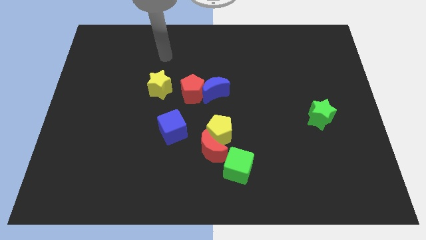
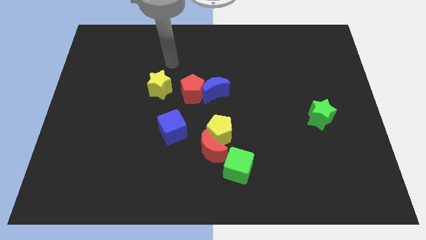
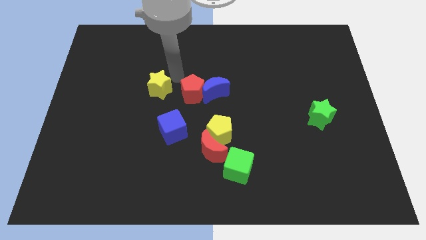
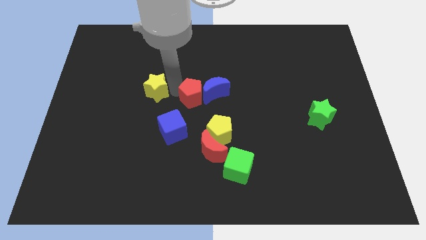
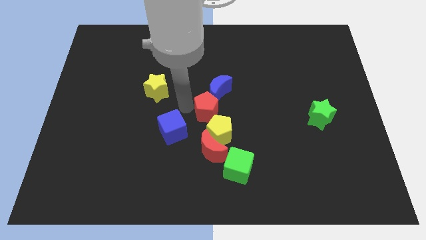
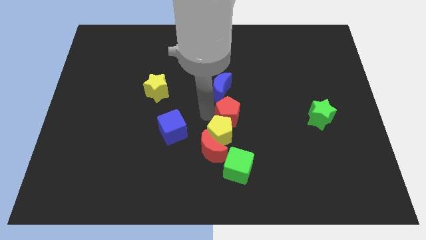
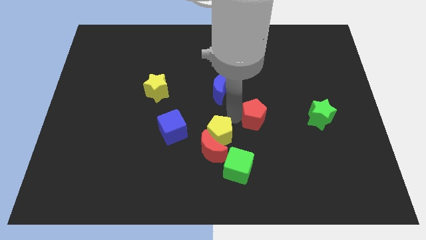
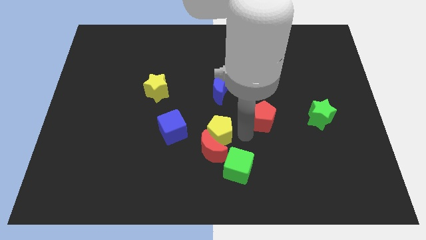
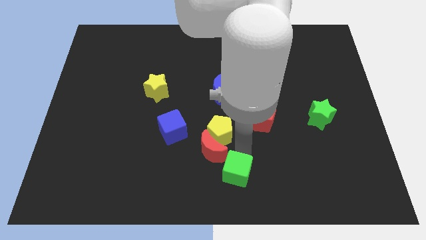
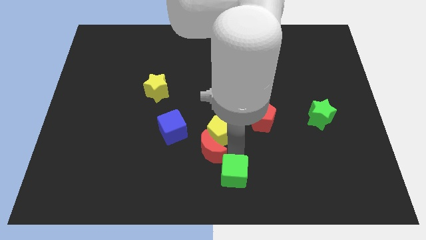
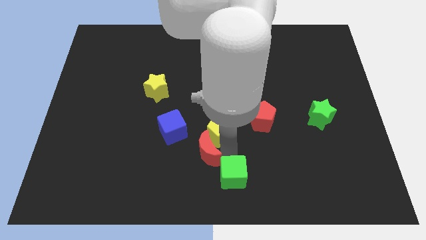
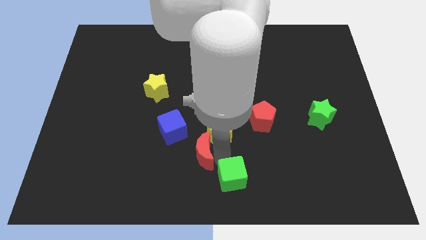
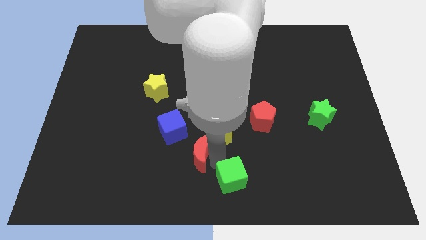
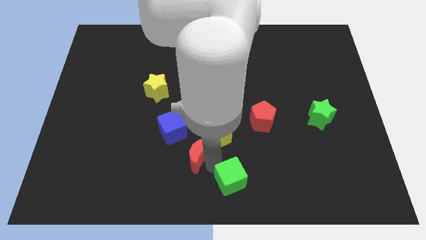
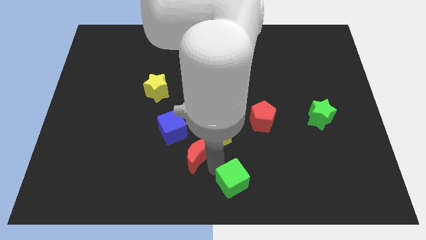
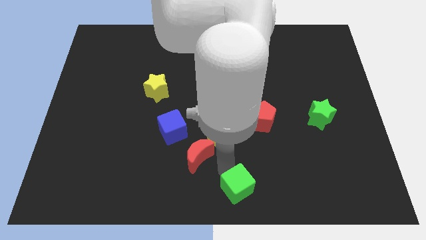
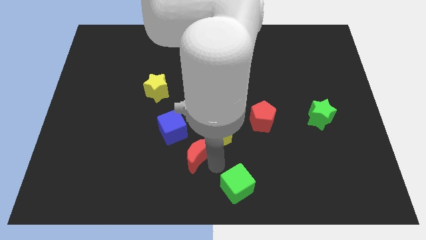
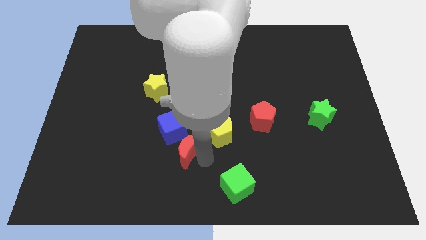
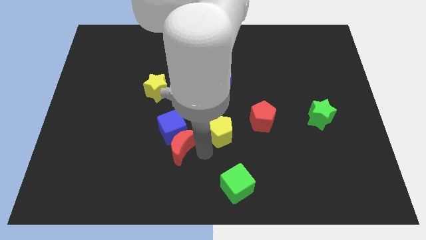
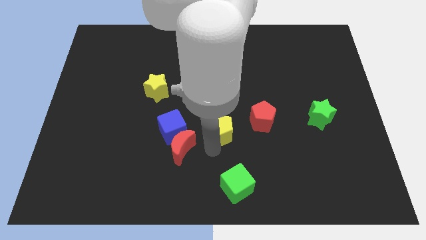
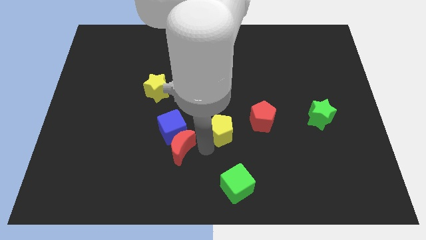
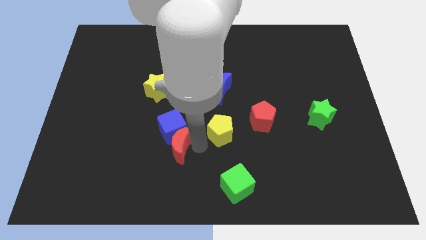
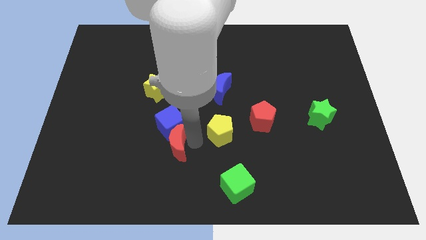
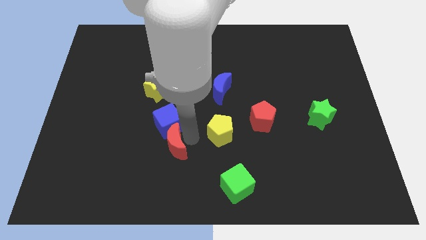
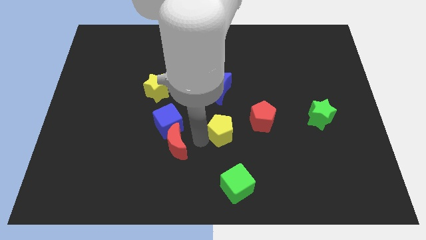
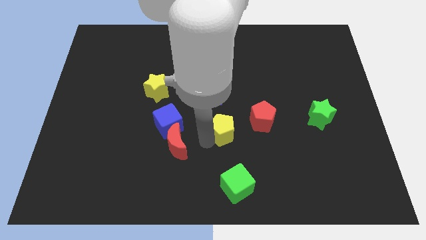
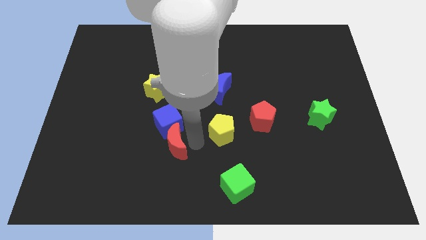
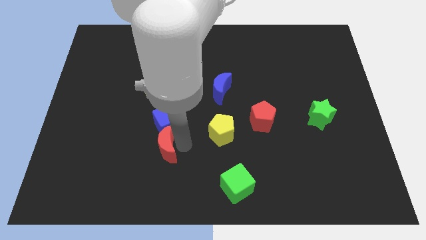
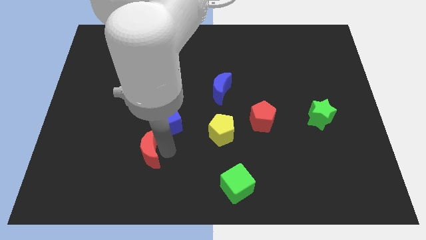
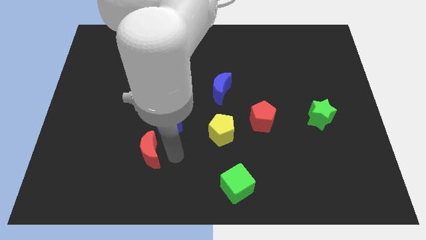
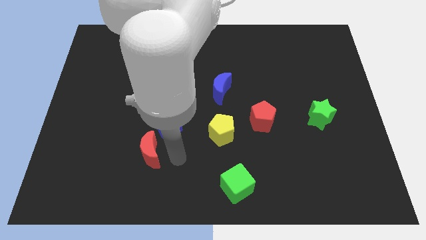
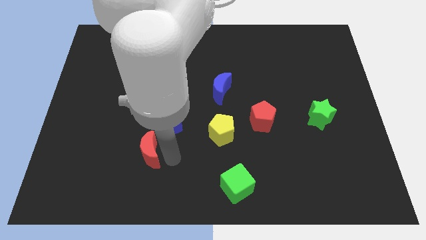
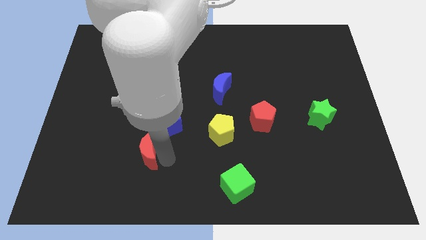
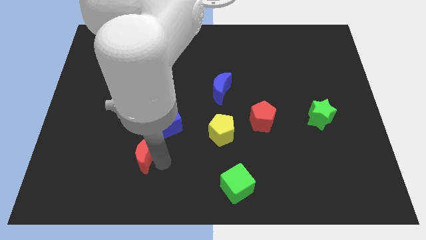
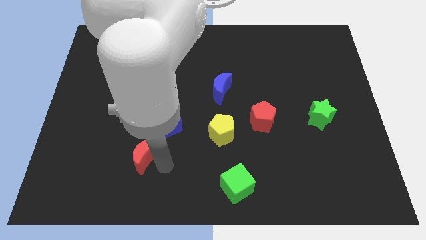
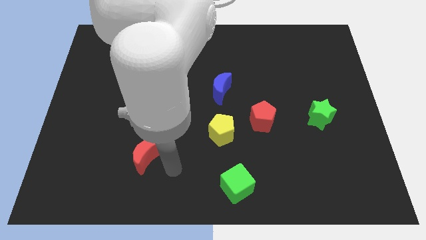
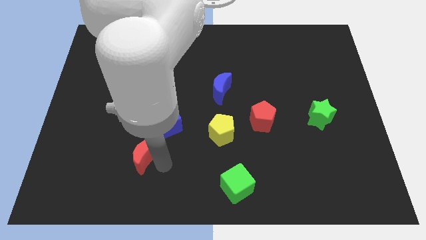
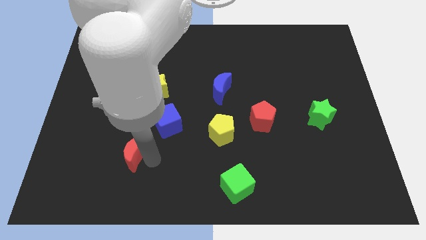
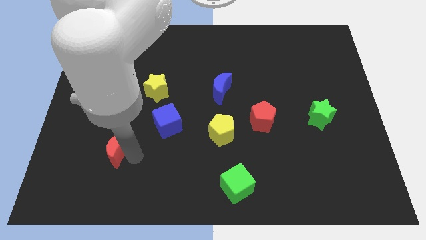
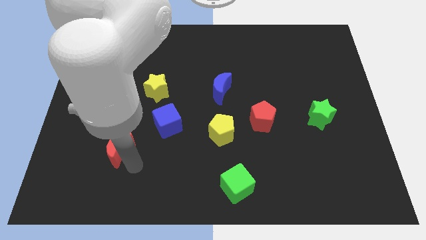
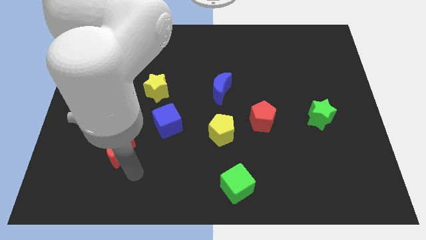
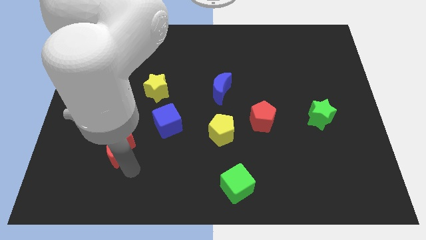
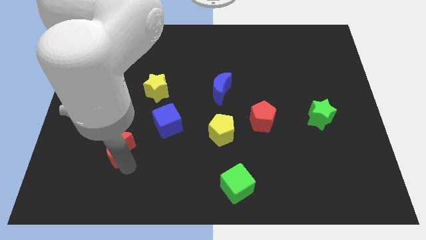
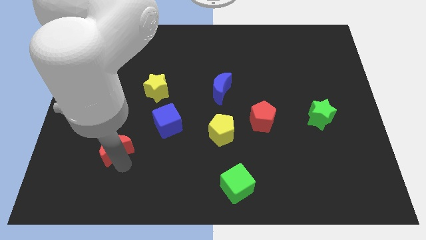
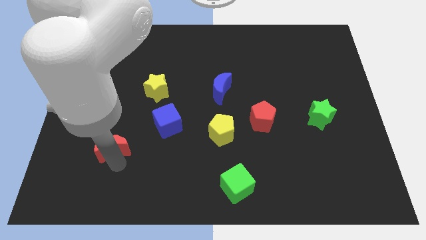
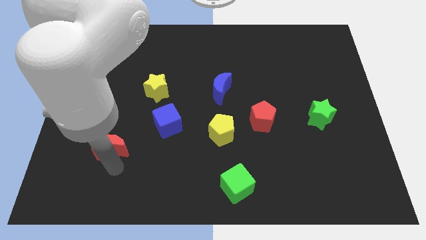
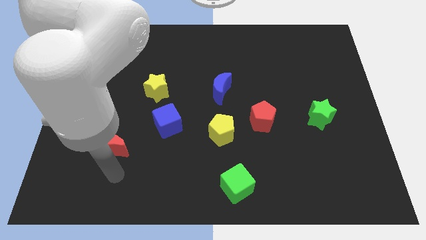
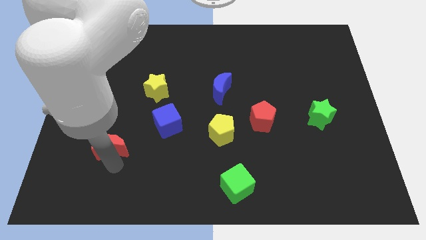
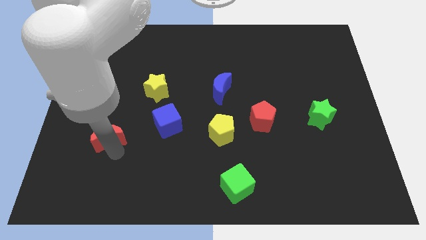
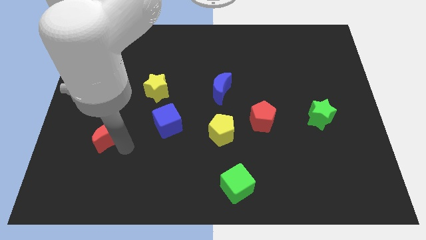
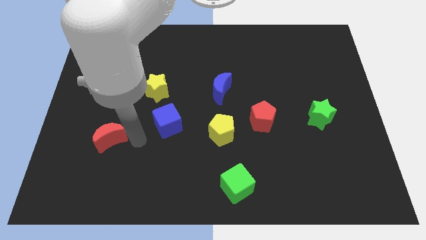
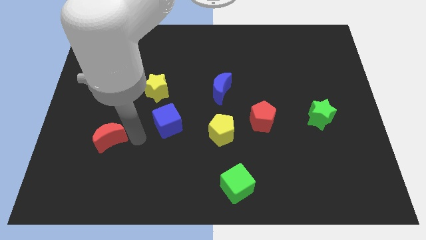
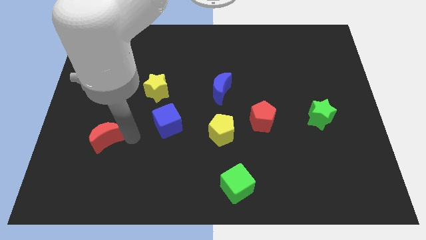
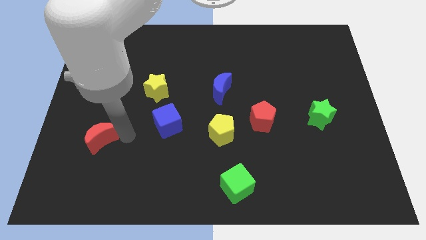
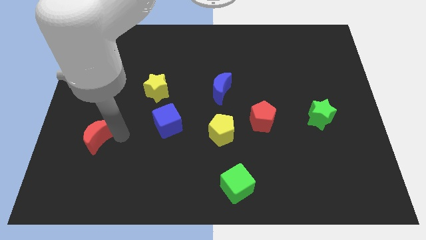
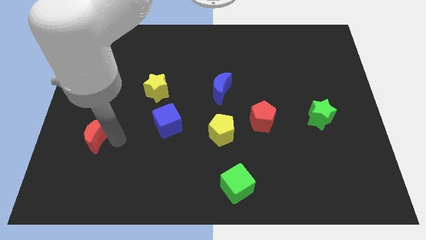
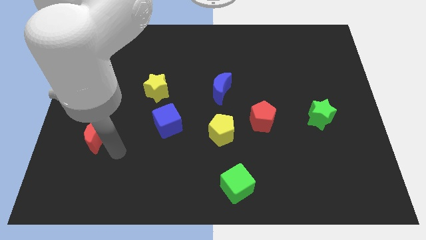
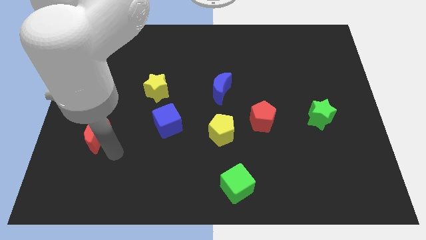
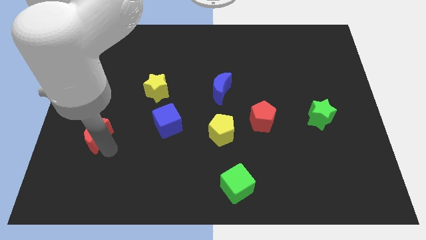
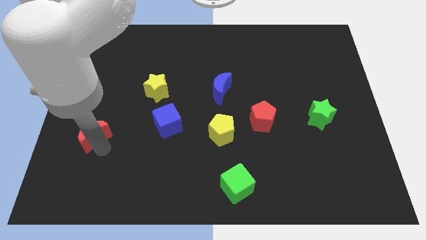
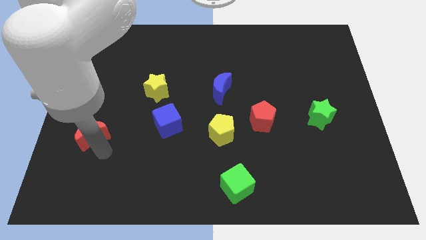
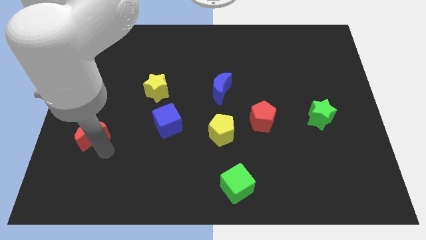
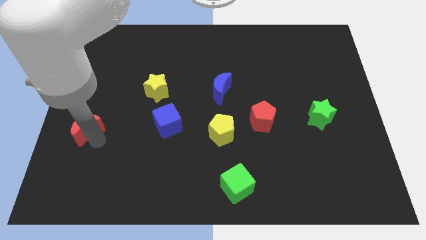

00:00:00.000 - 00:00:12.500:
push the red moon to the center left

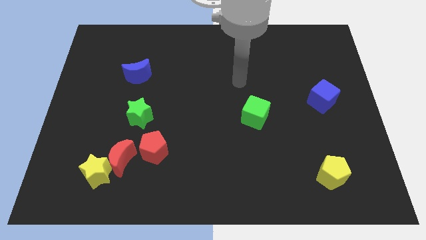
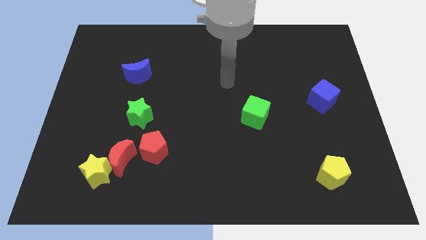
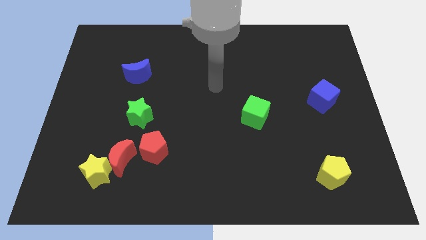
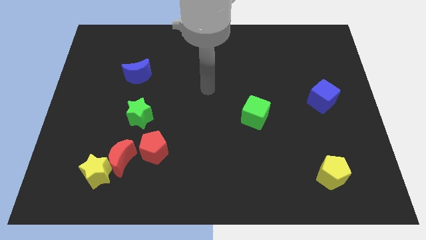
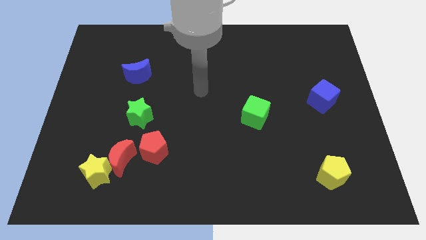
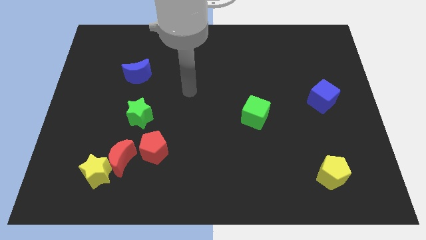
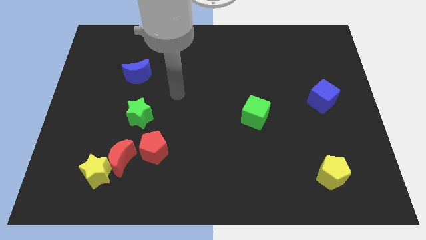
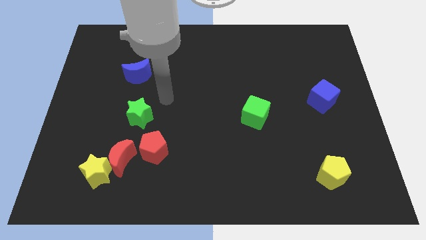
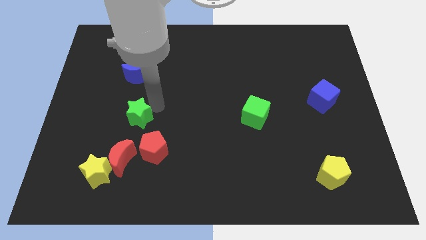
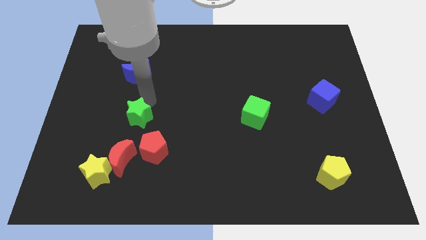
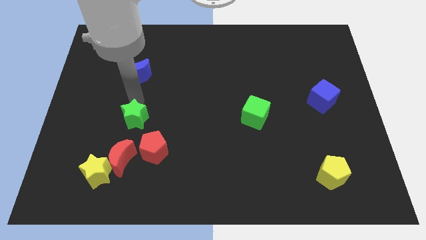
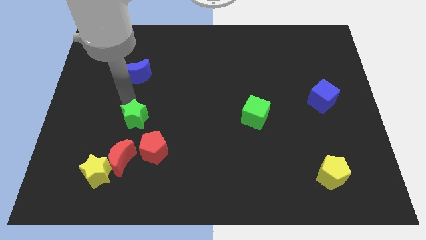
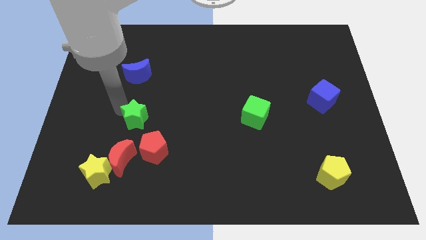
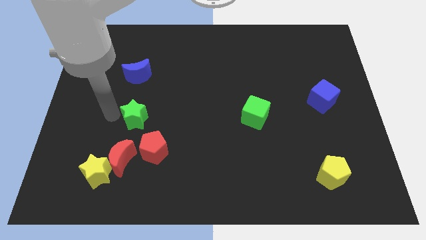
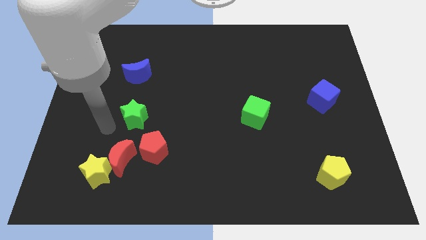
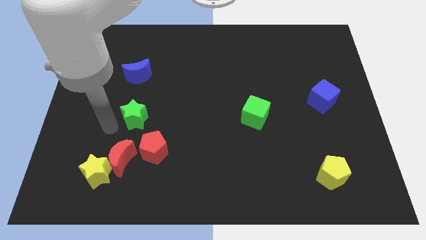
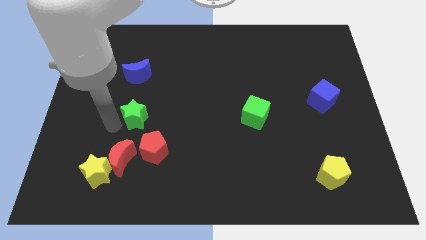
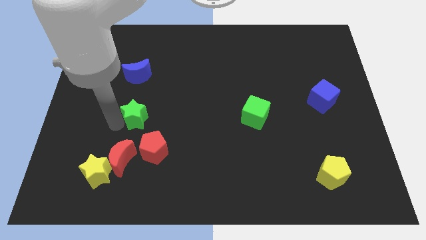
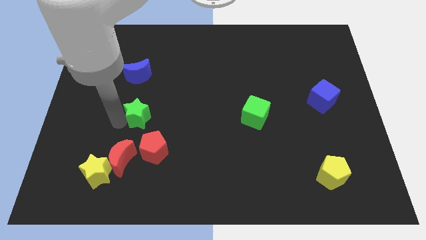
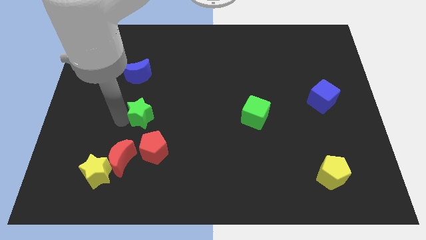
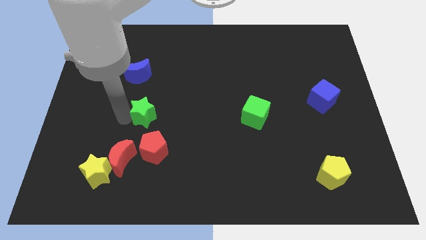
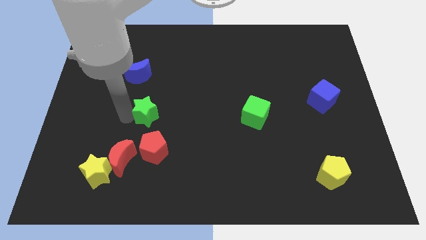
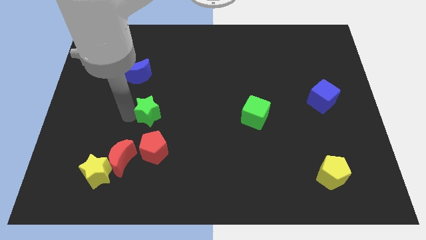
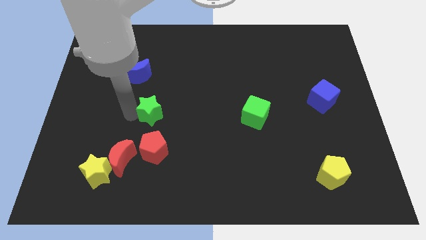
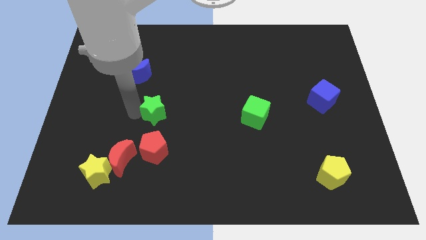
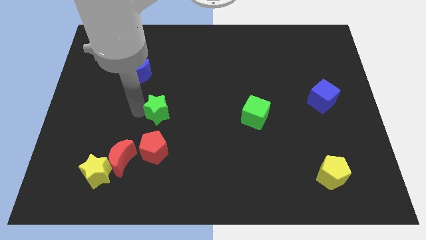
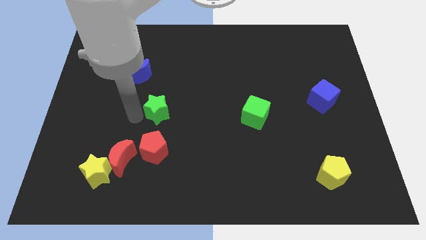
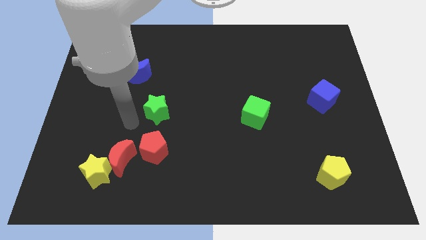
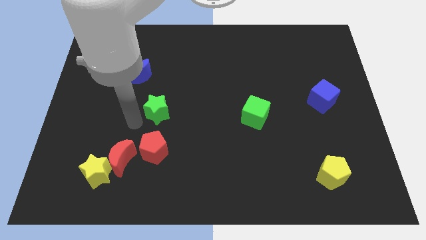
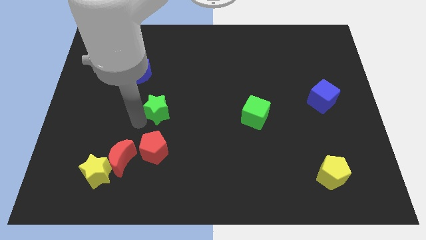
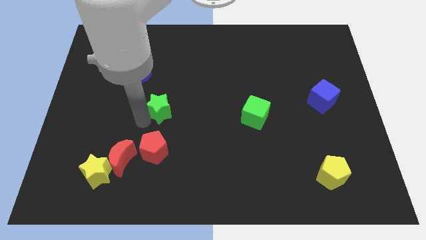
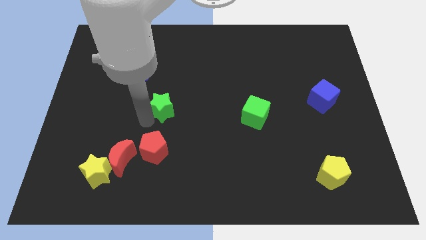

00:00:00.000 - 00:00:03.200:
move the green star to the middle
